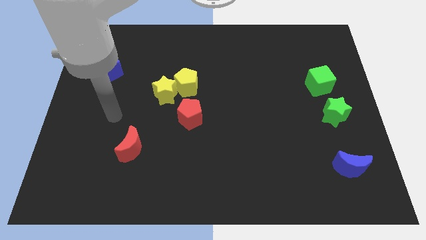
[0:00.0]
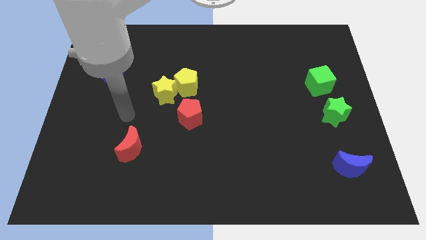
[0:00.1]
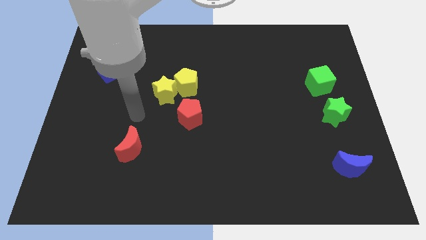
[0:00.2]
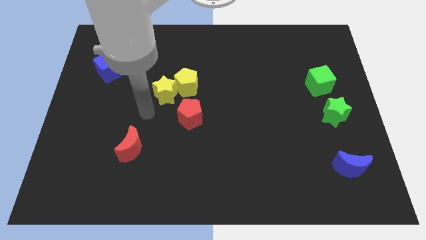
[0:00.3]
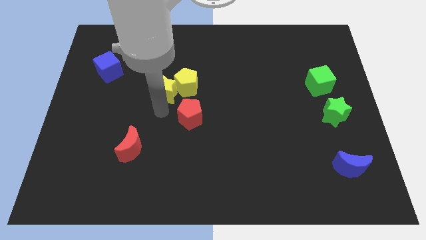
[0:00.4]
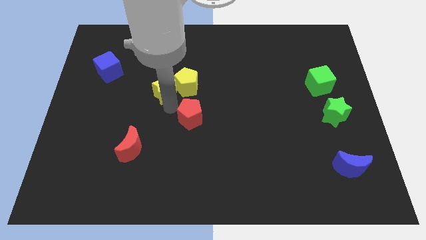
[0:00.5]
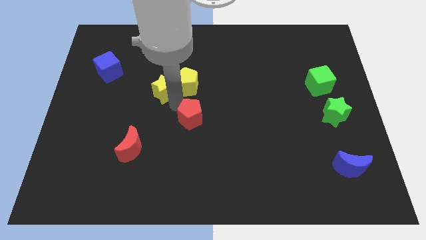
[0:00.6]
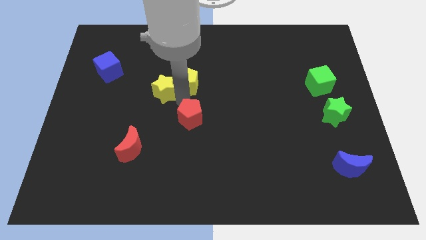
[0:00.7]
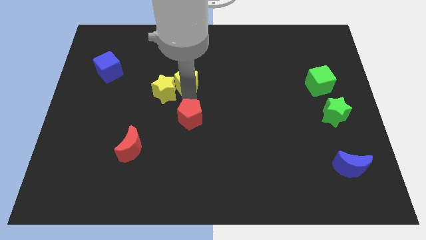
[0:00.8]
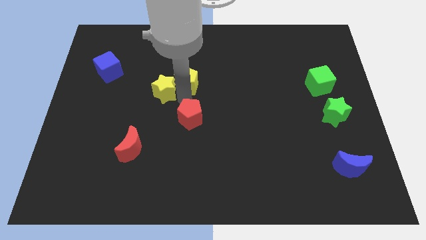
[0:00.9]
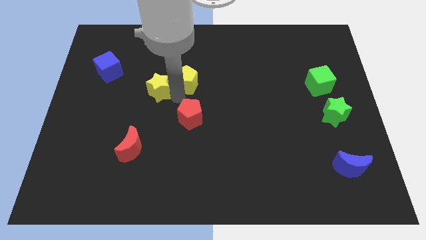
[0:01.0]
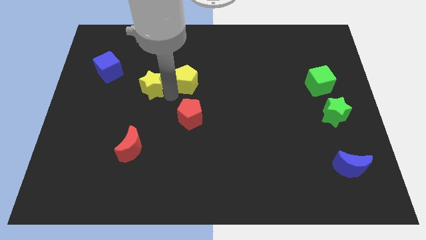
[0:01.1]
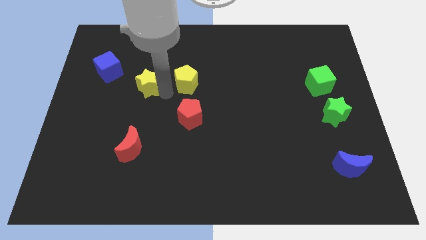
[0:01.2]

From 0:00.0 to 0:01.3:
move the yellow star away from the yellow pentagon and red pentagon

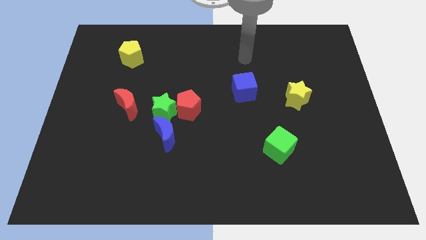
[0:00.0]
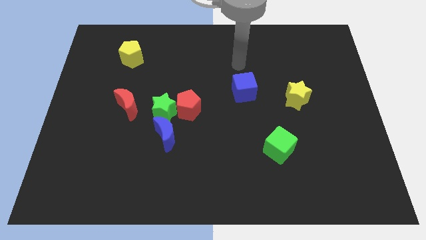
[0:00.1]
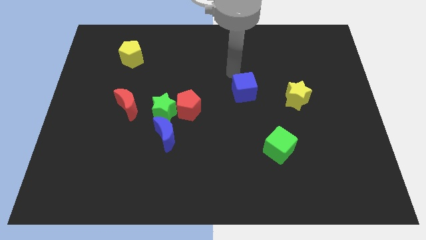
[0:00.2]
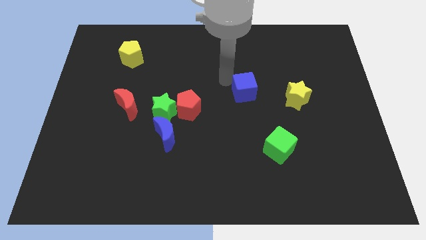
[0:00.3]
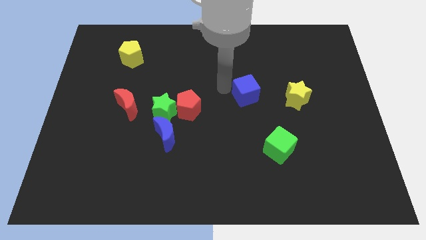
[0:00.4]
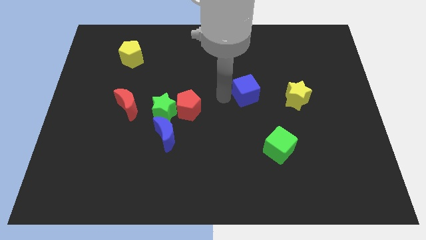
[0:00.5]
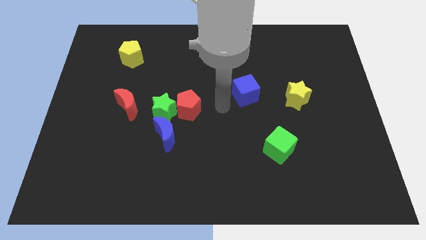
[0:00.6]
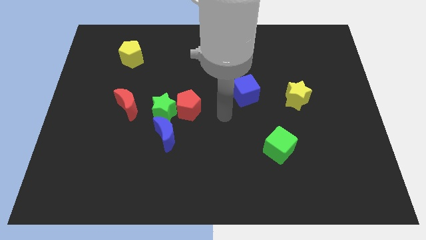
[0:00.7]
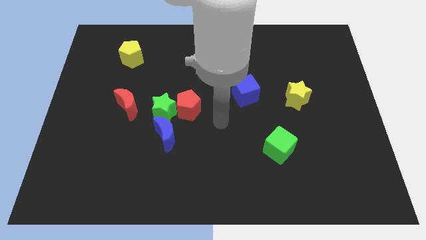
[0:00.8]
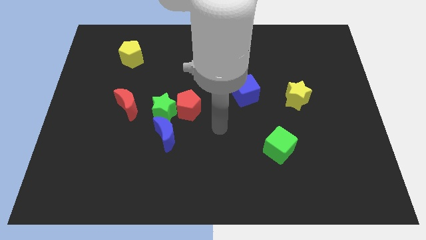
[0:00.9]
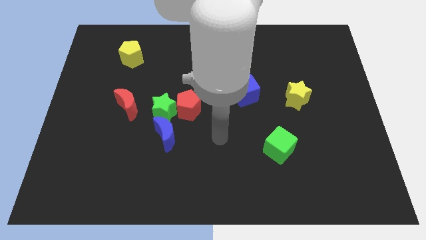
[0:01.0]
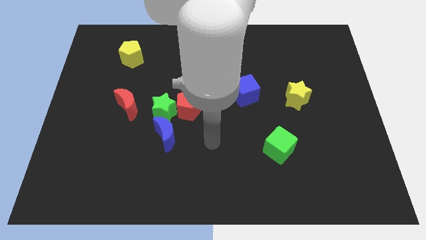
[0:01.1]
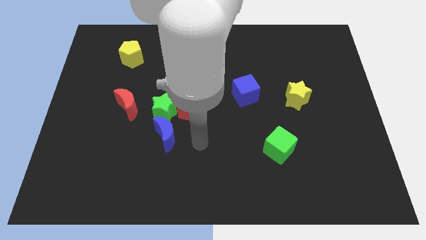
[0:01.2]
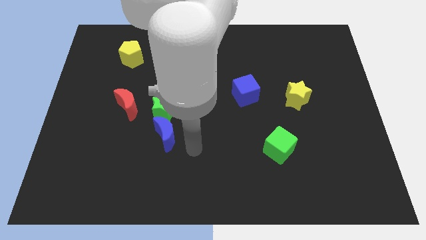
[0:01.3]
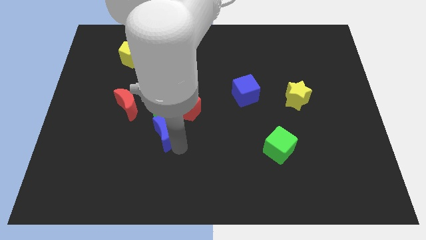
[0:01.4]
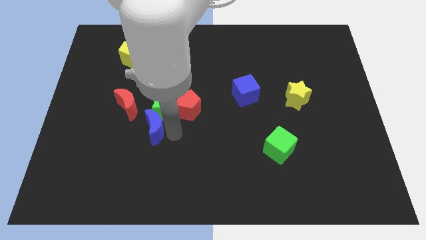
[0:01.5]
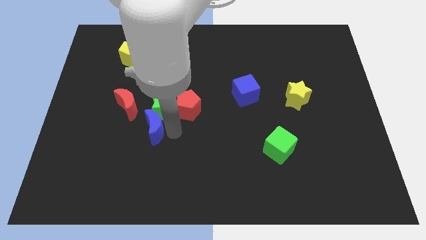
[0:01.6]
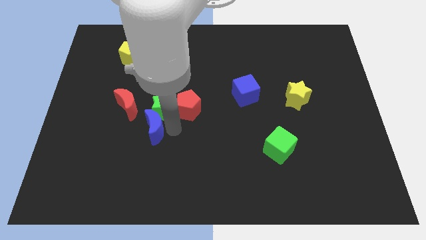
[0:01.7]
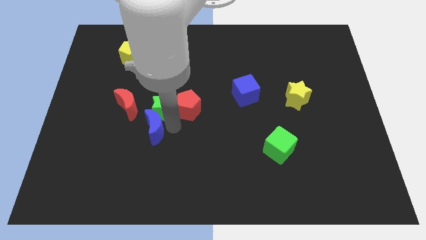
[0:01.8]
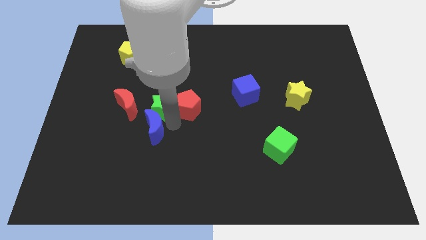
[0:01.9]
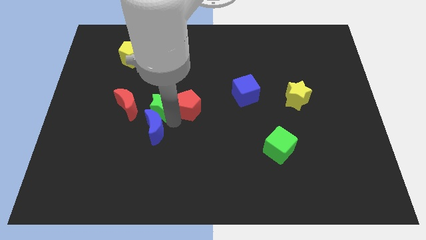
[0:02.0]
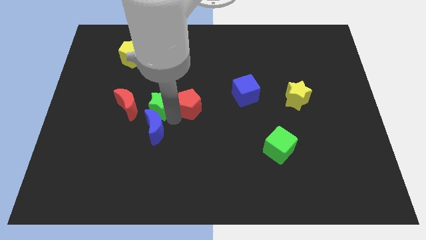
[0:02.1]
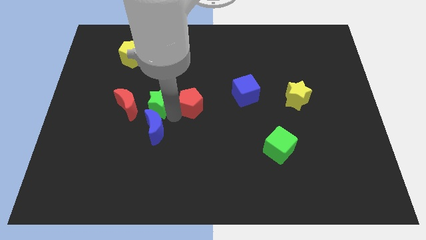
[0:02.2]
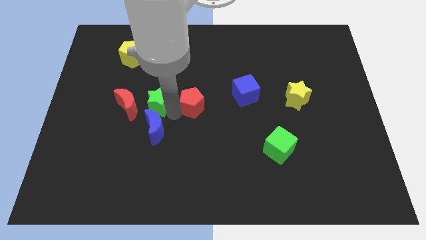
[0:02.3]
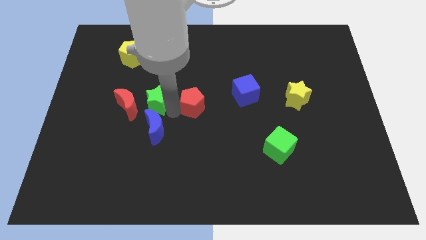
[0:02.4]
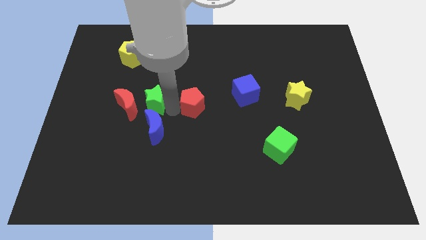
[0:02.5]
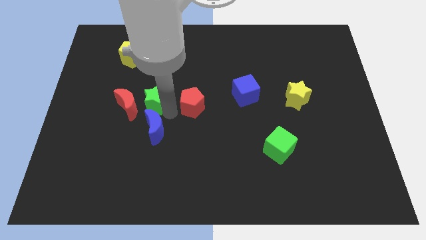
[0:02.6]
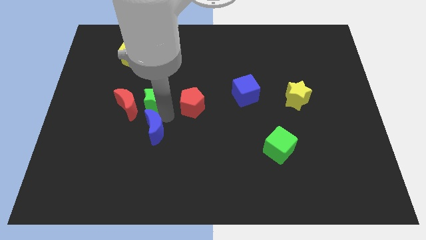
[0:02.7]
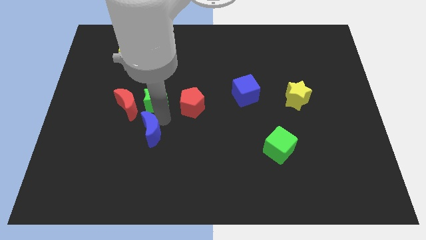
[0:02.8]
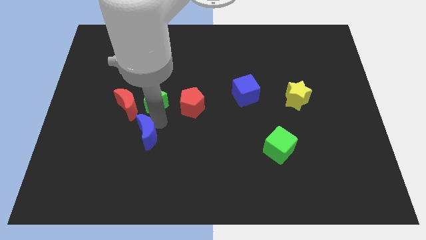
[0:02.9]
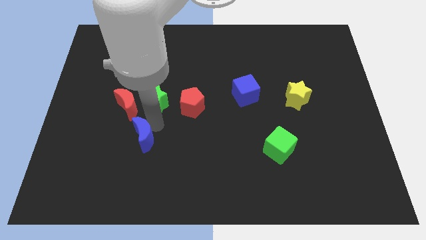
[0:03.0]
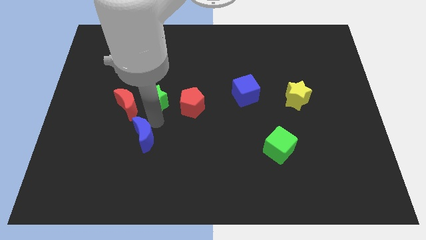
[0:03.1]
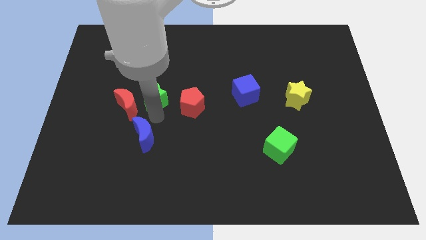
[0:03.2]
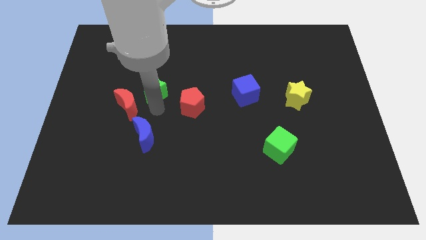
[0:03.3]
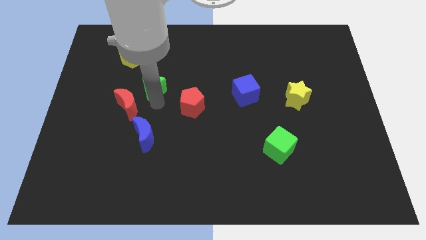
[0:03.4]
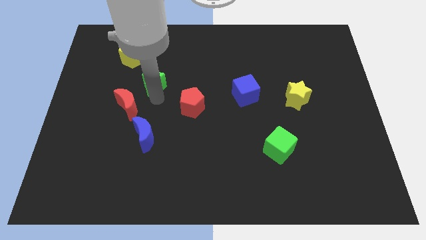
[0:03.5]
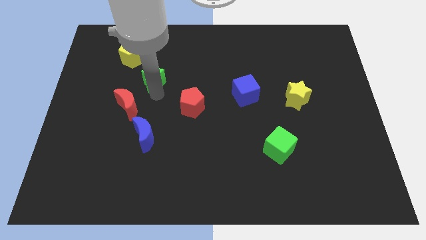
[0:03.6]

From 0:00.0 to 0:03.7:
pull the green star apart from the clump

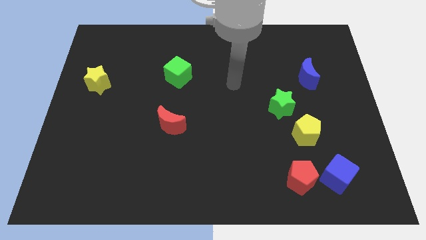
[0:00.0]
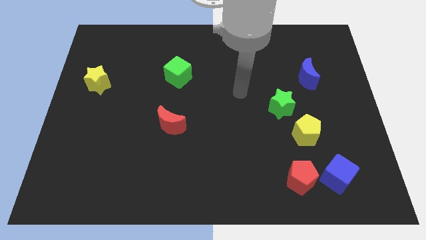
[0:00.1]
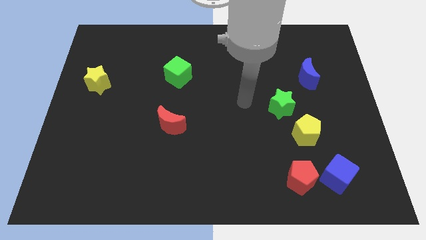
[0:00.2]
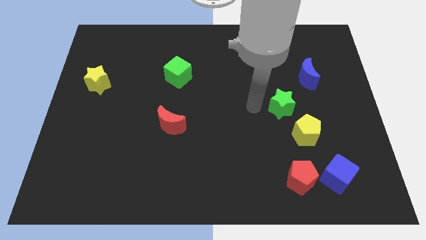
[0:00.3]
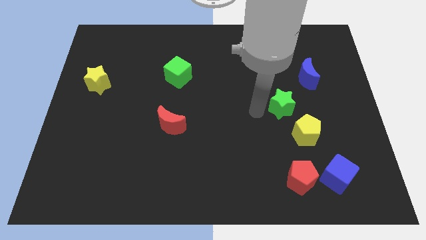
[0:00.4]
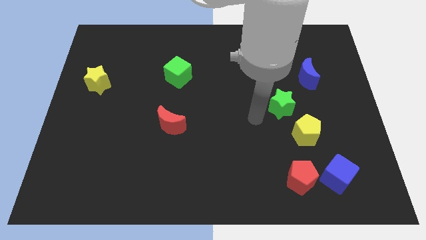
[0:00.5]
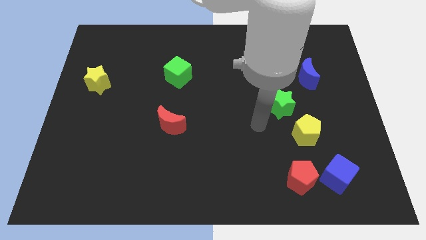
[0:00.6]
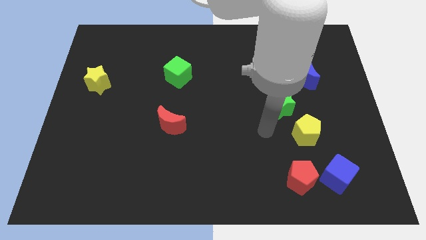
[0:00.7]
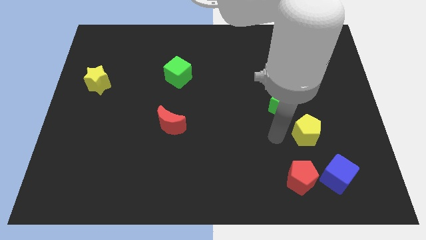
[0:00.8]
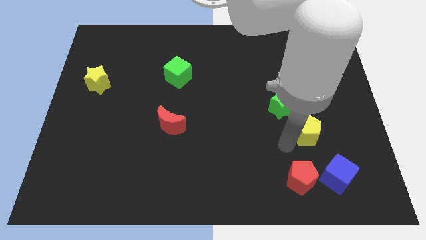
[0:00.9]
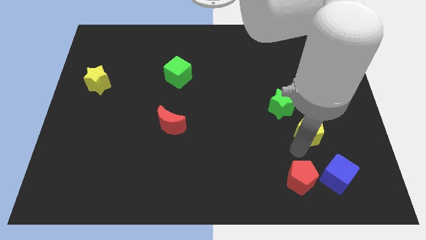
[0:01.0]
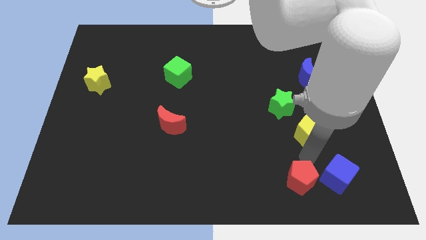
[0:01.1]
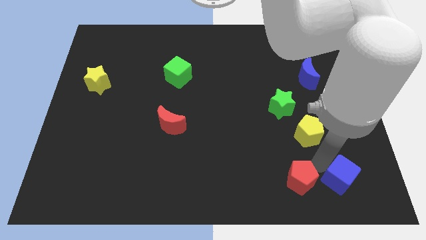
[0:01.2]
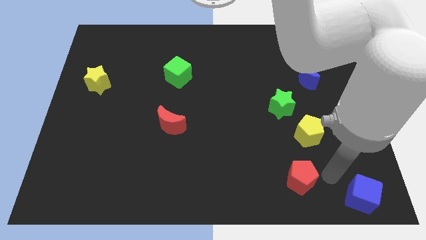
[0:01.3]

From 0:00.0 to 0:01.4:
pull the red pentagon apart from the blue cube

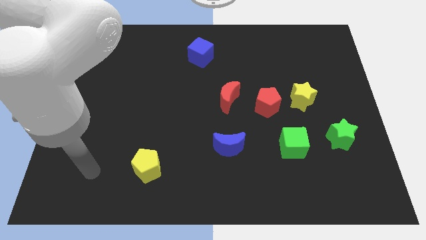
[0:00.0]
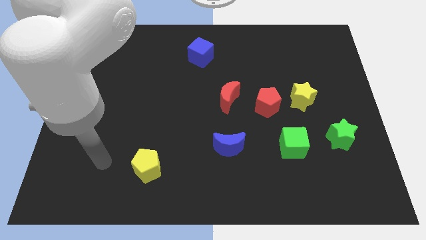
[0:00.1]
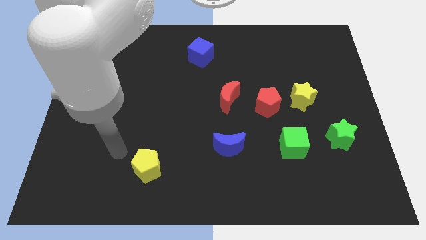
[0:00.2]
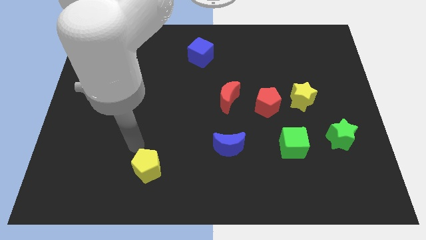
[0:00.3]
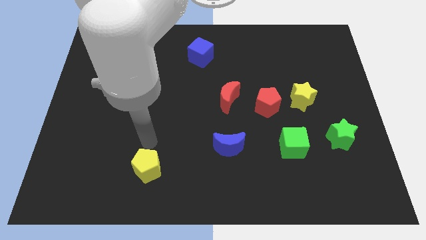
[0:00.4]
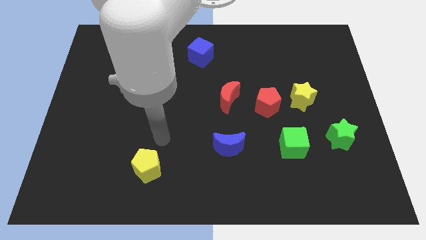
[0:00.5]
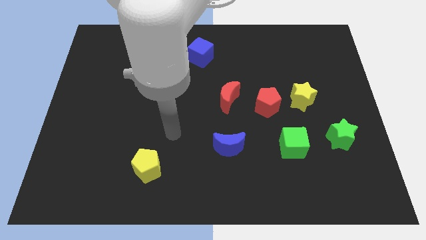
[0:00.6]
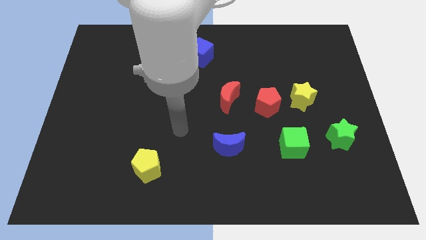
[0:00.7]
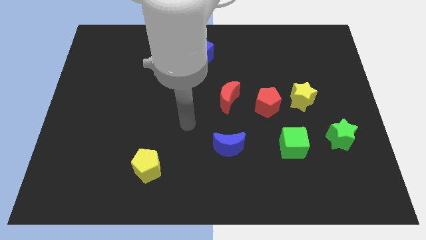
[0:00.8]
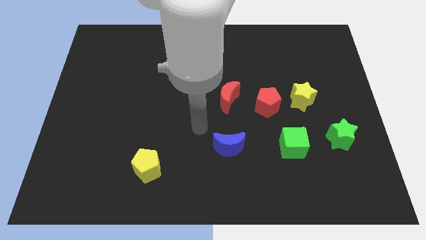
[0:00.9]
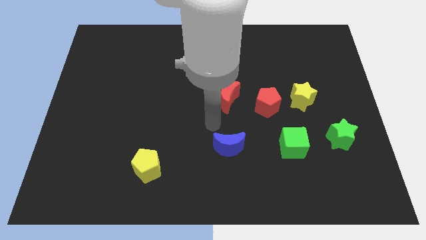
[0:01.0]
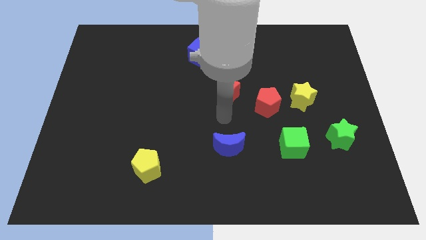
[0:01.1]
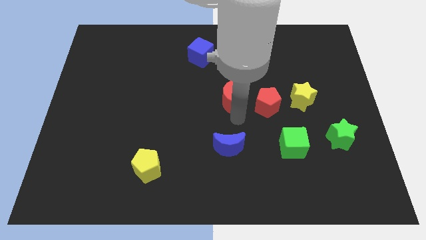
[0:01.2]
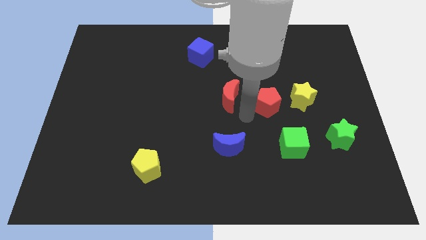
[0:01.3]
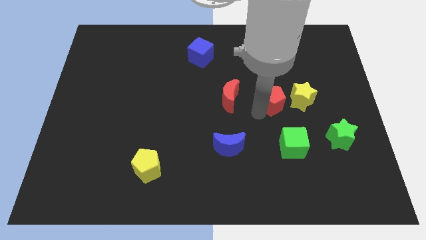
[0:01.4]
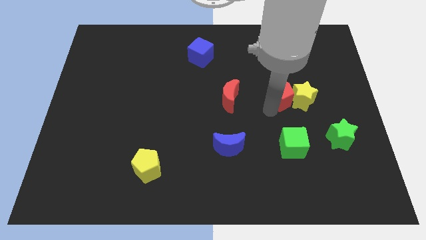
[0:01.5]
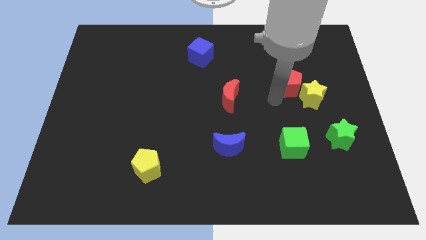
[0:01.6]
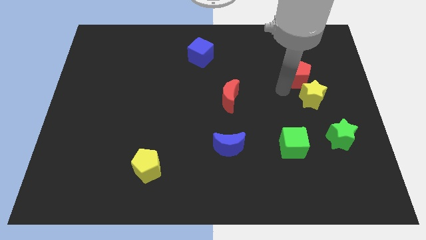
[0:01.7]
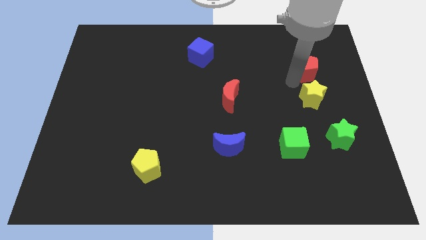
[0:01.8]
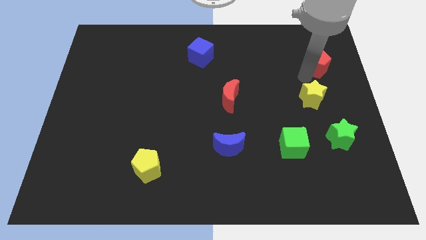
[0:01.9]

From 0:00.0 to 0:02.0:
move the yellow star away from the red pentagon

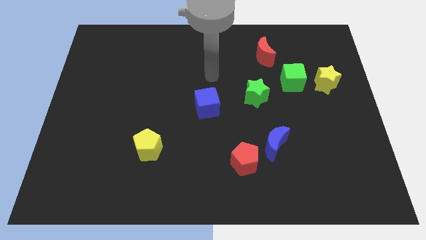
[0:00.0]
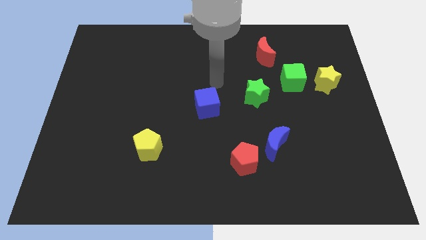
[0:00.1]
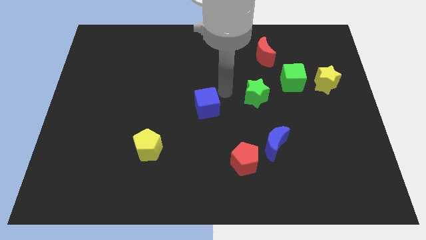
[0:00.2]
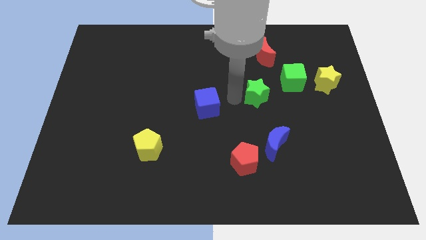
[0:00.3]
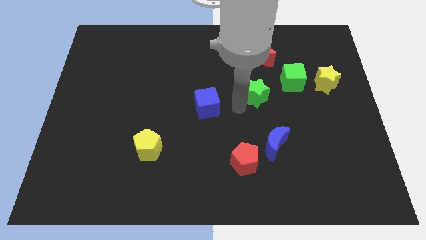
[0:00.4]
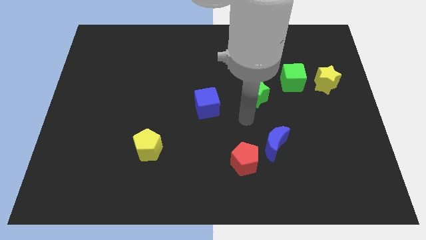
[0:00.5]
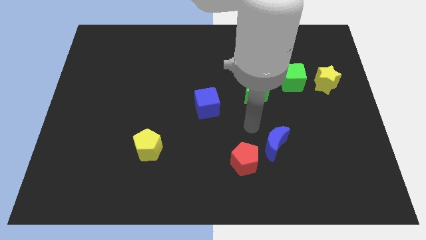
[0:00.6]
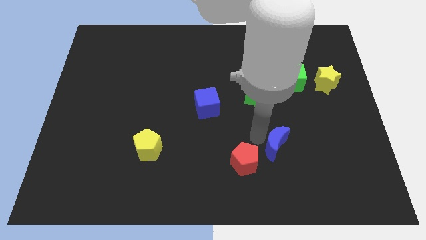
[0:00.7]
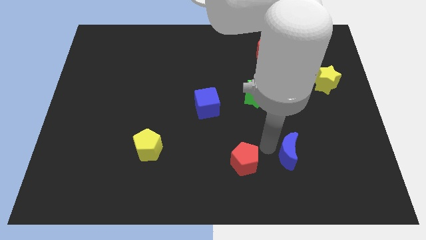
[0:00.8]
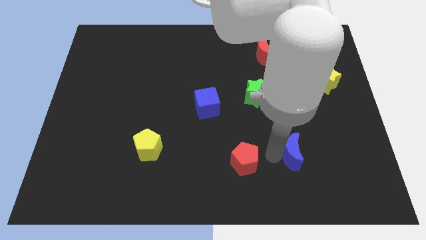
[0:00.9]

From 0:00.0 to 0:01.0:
pull the red pentagon apart from the blue moon
